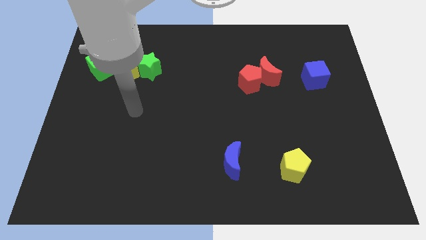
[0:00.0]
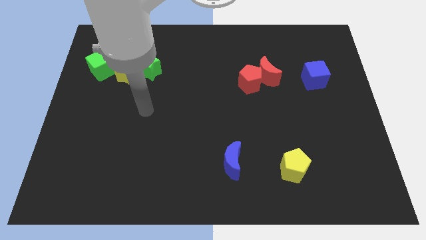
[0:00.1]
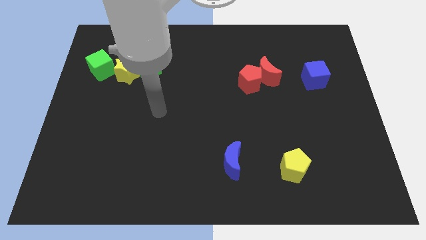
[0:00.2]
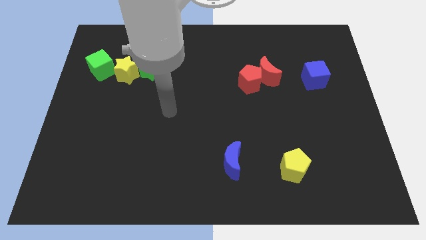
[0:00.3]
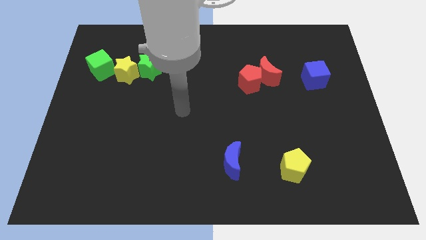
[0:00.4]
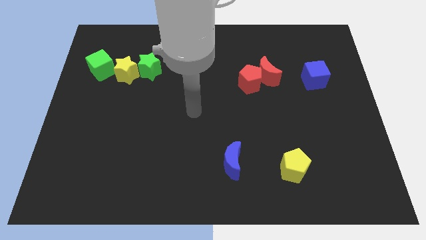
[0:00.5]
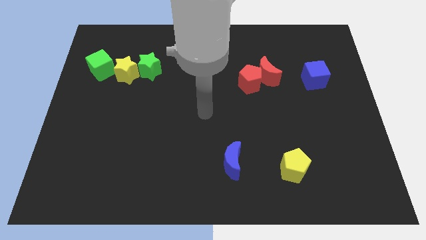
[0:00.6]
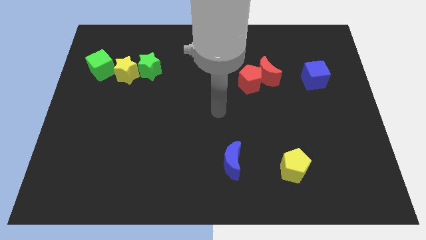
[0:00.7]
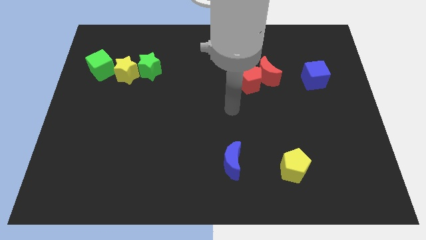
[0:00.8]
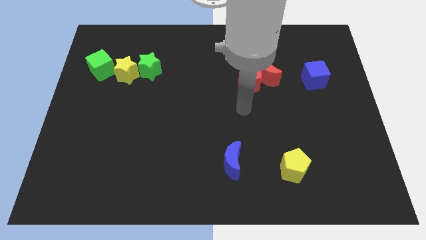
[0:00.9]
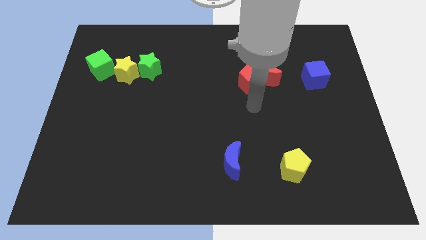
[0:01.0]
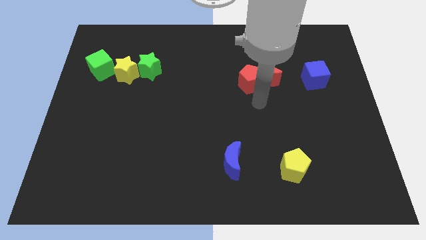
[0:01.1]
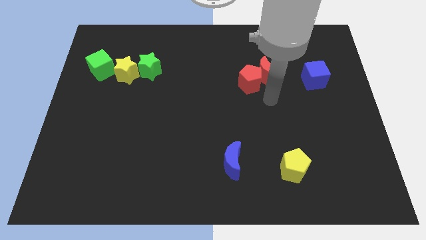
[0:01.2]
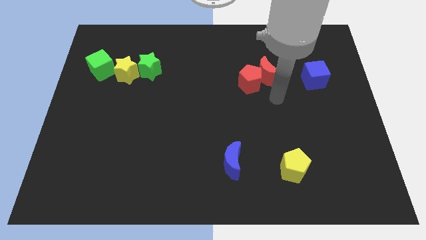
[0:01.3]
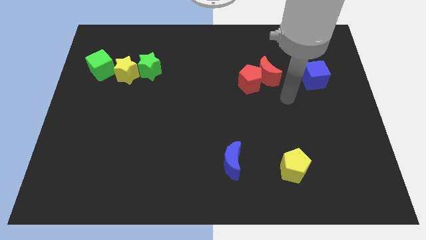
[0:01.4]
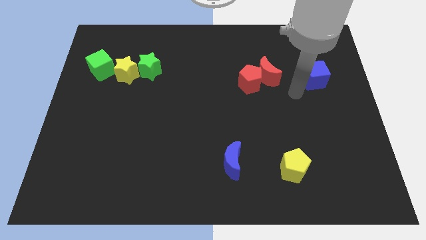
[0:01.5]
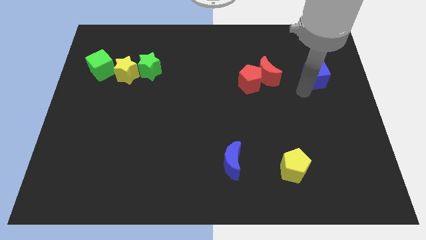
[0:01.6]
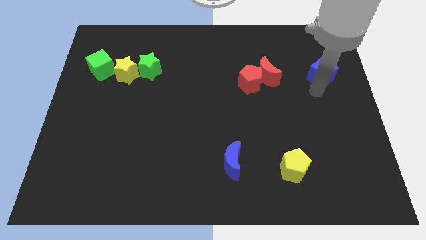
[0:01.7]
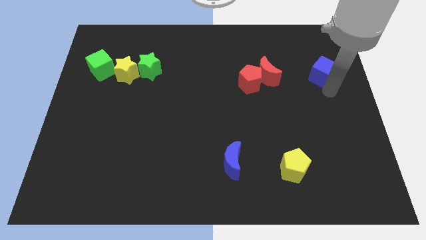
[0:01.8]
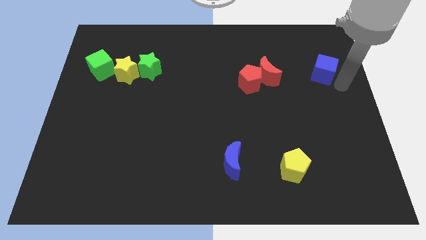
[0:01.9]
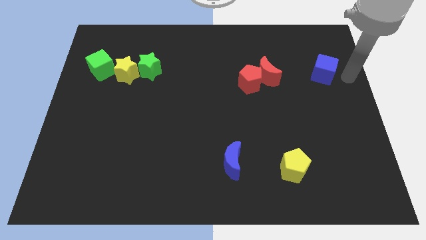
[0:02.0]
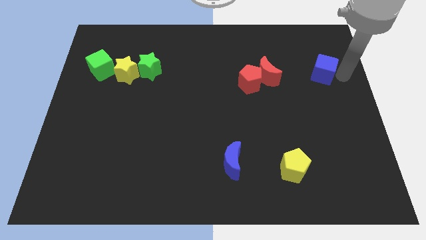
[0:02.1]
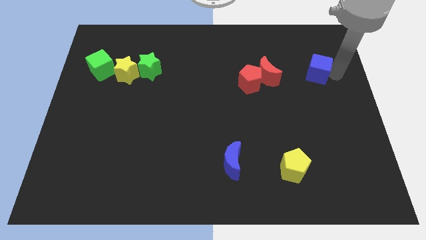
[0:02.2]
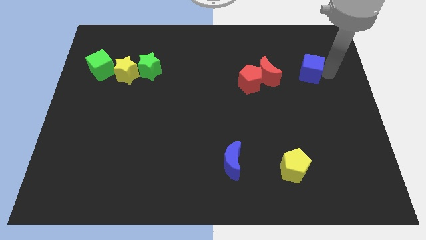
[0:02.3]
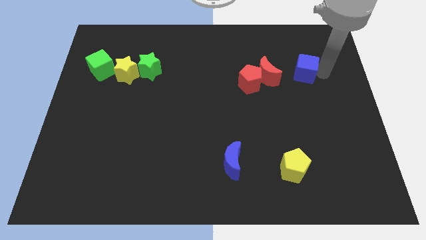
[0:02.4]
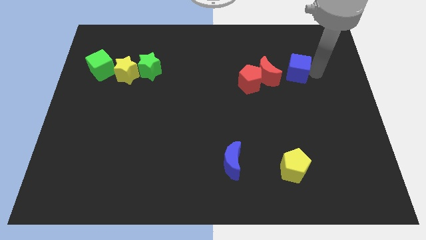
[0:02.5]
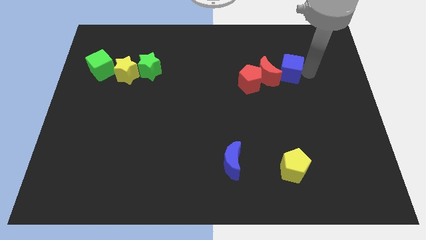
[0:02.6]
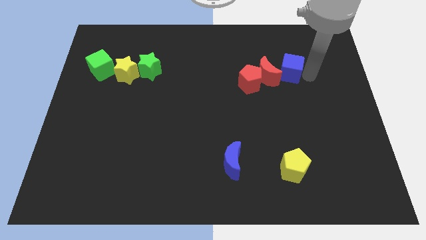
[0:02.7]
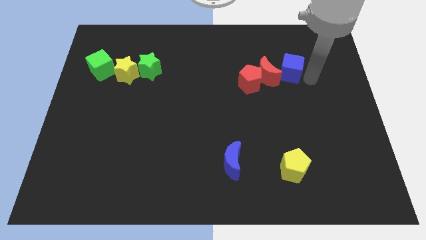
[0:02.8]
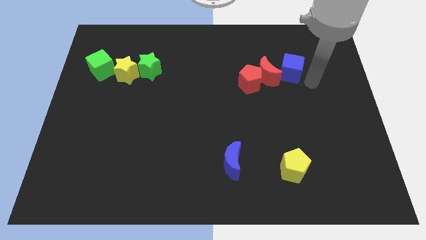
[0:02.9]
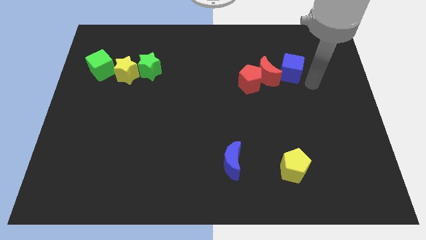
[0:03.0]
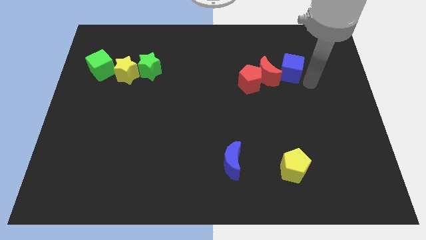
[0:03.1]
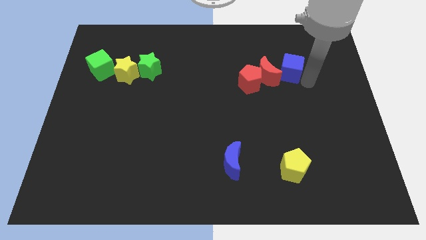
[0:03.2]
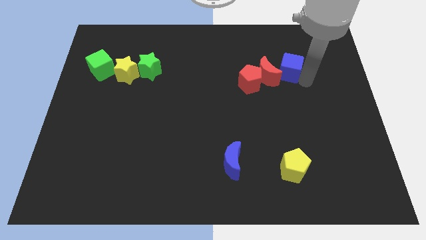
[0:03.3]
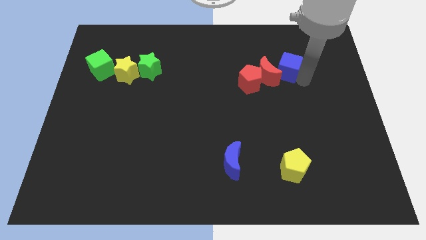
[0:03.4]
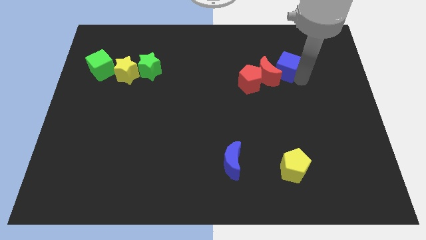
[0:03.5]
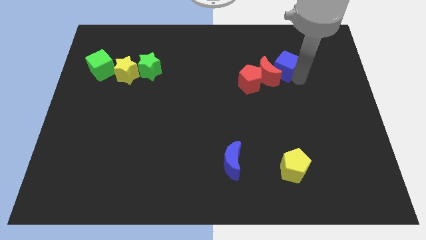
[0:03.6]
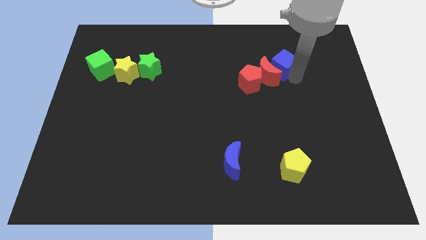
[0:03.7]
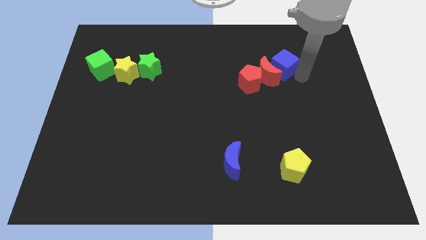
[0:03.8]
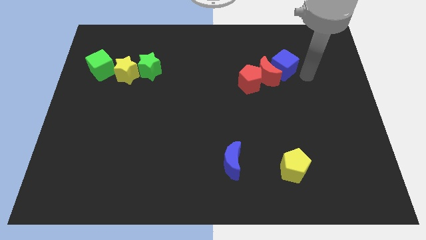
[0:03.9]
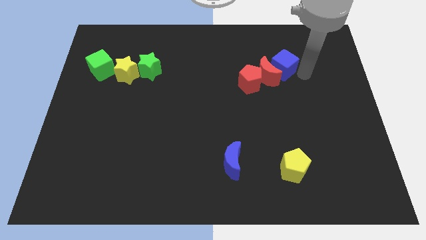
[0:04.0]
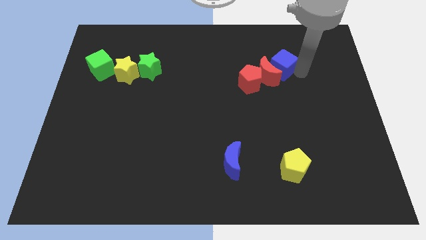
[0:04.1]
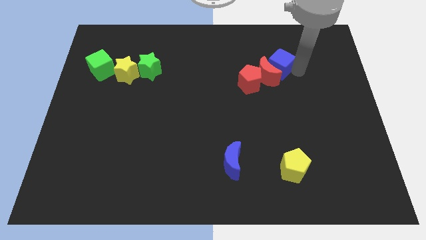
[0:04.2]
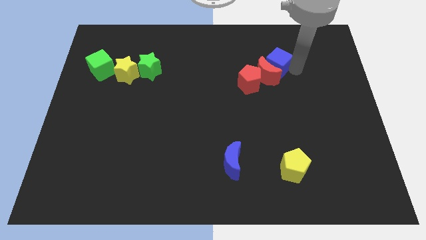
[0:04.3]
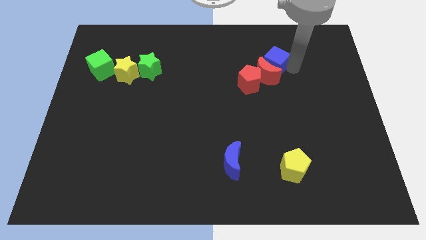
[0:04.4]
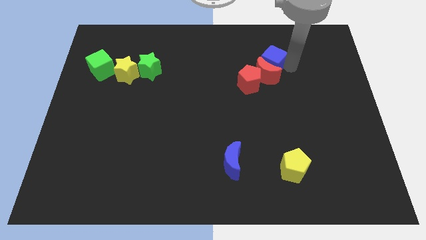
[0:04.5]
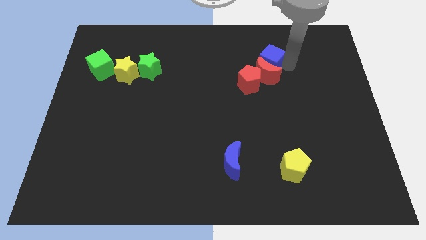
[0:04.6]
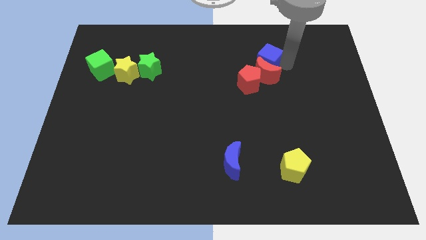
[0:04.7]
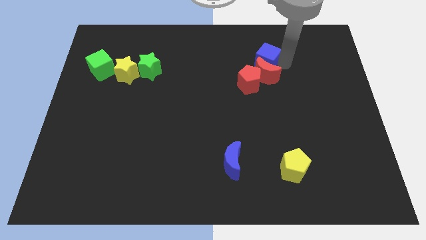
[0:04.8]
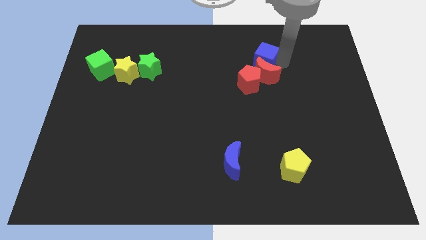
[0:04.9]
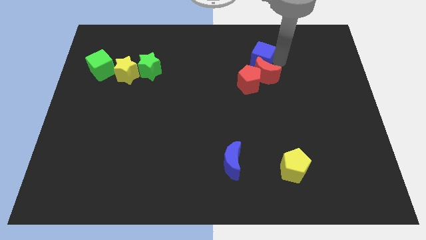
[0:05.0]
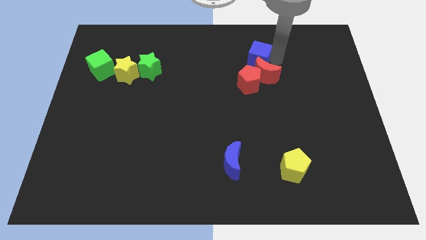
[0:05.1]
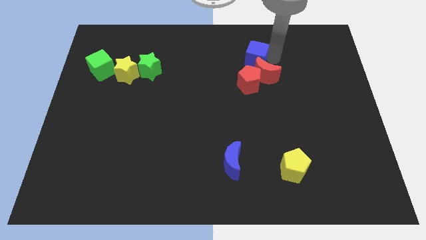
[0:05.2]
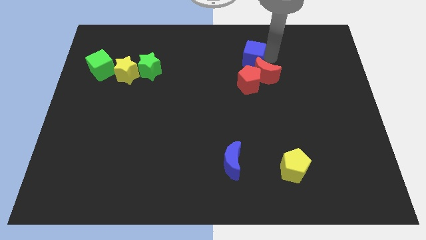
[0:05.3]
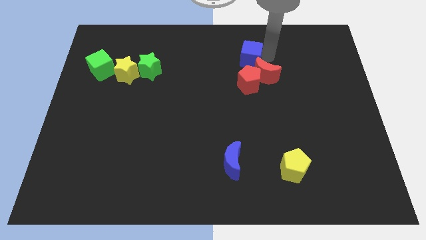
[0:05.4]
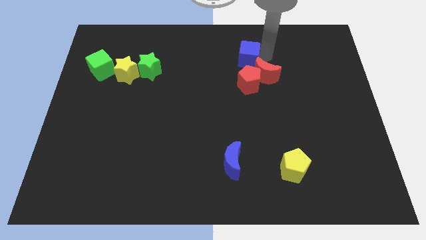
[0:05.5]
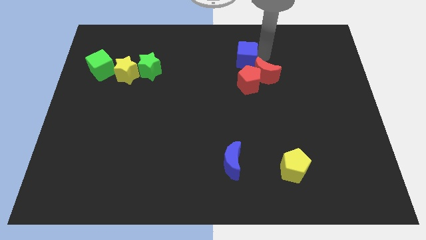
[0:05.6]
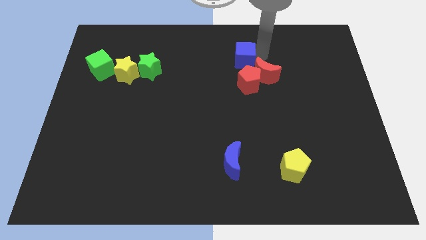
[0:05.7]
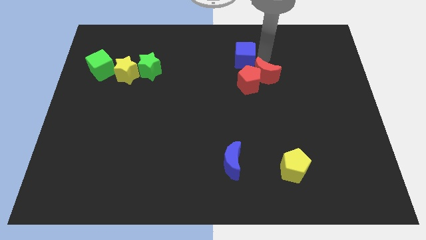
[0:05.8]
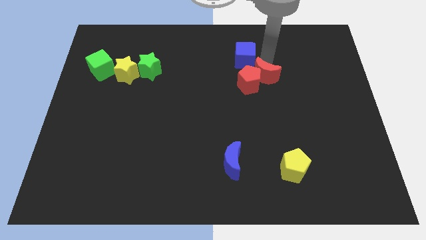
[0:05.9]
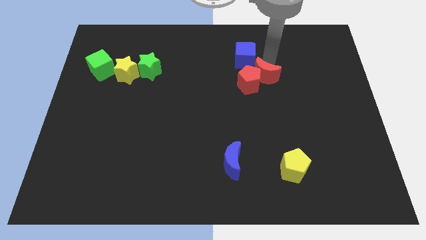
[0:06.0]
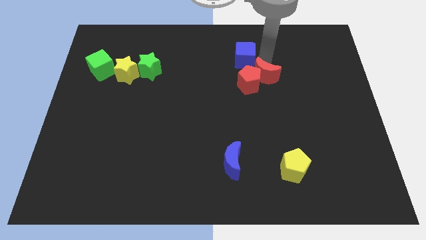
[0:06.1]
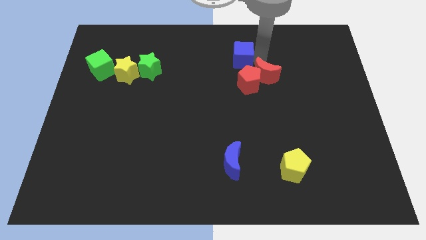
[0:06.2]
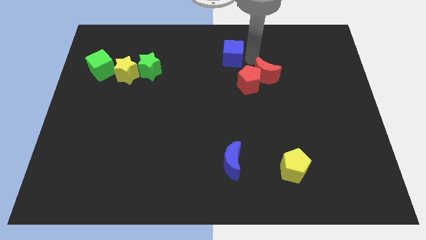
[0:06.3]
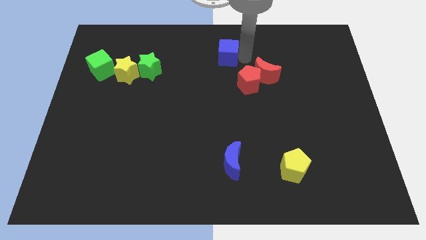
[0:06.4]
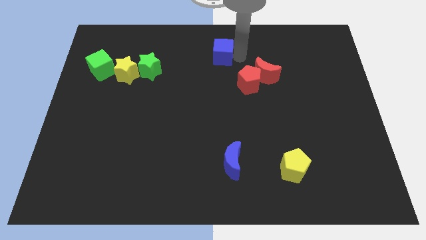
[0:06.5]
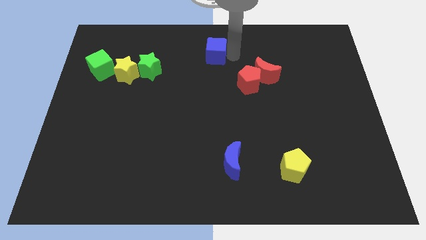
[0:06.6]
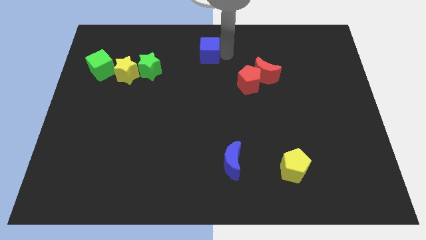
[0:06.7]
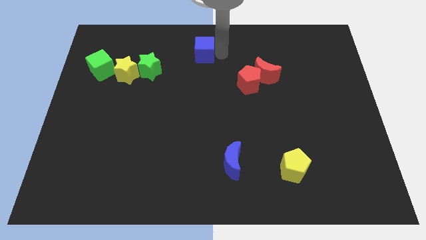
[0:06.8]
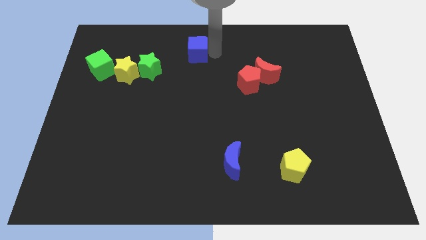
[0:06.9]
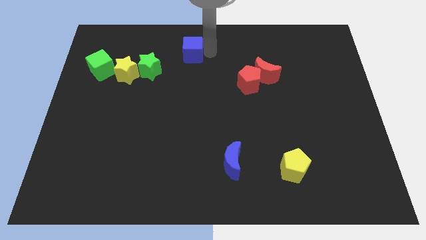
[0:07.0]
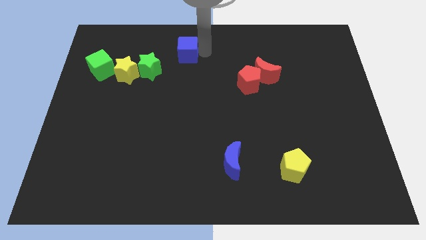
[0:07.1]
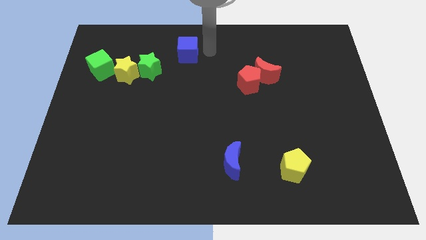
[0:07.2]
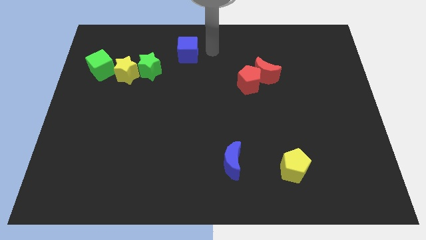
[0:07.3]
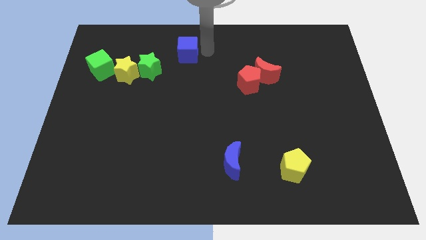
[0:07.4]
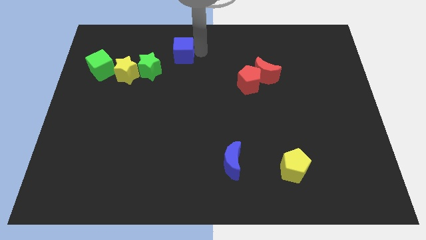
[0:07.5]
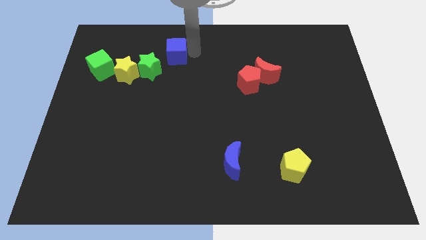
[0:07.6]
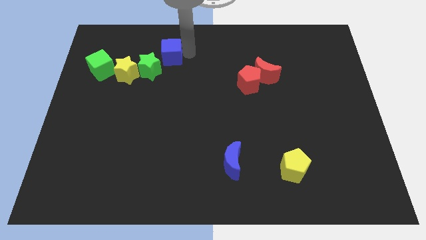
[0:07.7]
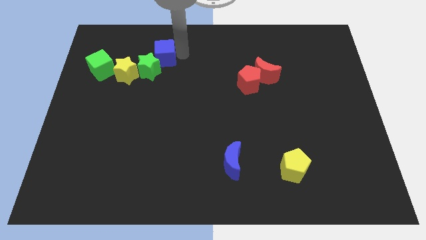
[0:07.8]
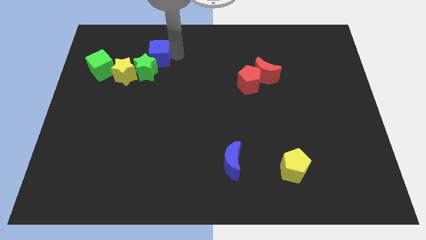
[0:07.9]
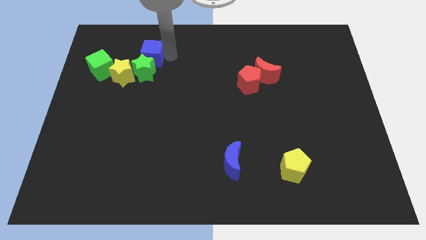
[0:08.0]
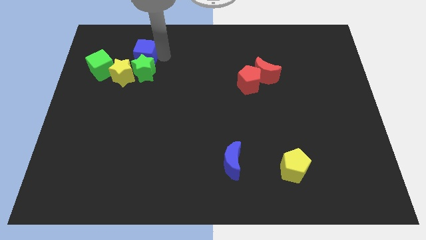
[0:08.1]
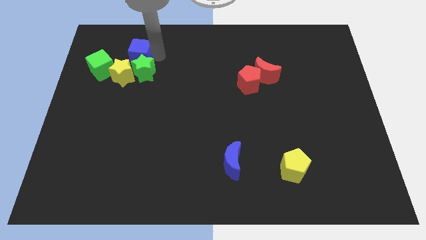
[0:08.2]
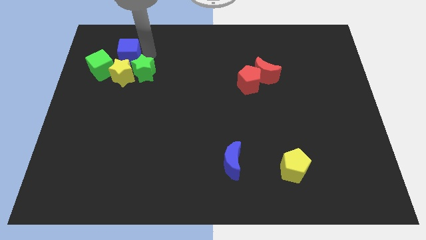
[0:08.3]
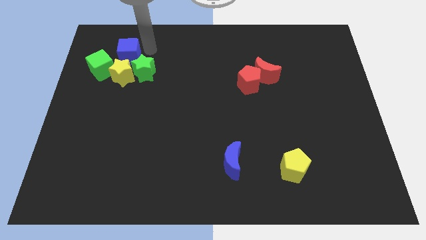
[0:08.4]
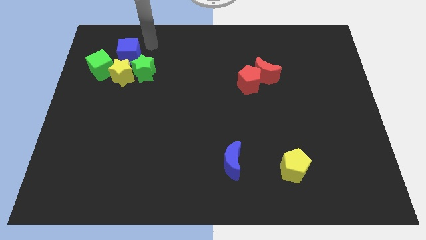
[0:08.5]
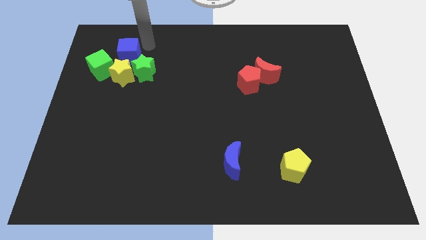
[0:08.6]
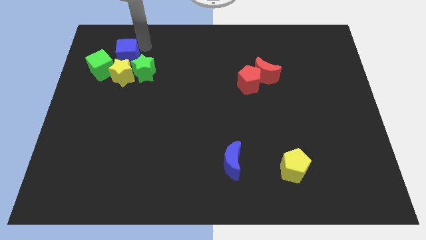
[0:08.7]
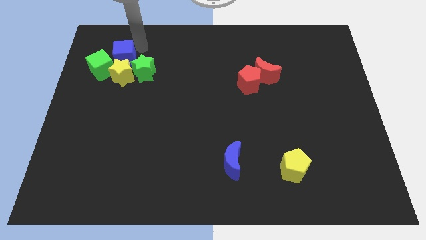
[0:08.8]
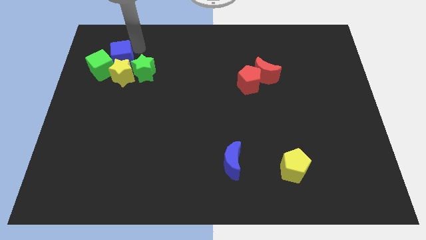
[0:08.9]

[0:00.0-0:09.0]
move the blue cube towards the green cube
